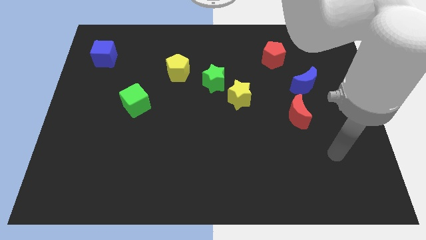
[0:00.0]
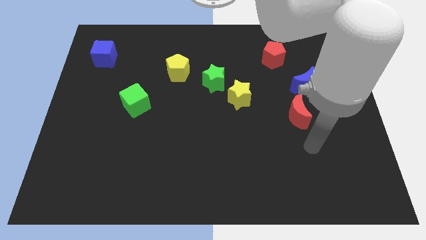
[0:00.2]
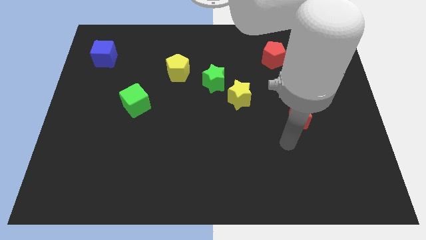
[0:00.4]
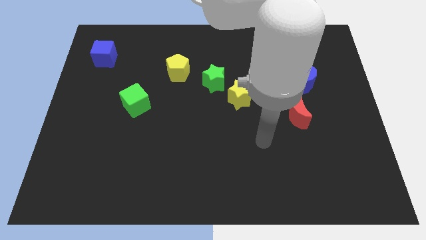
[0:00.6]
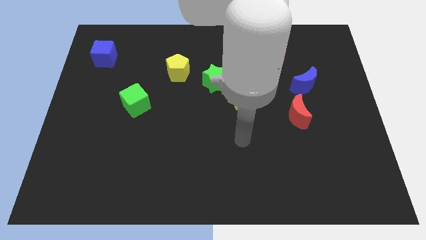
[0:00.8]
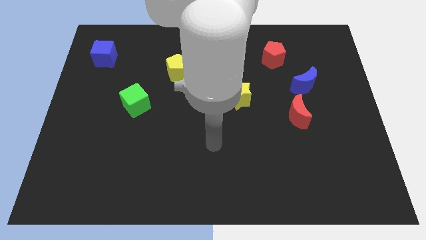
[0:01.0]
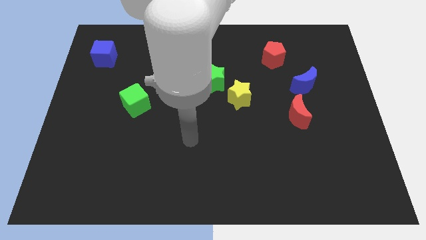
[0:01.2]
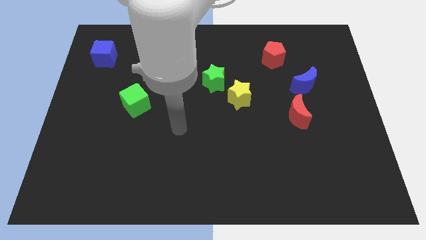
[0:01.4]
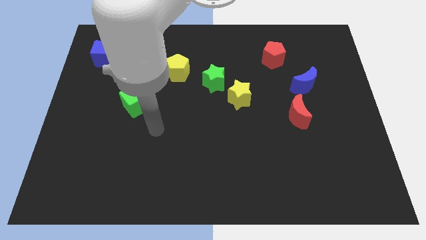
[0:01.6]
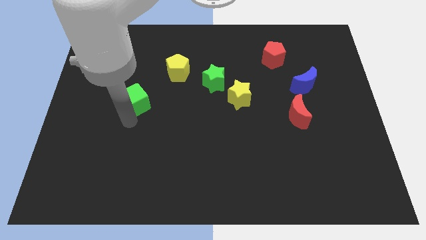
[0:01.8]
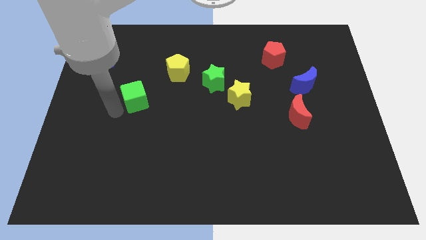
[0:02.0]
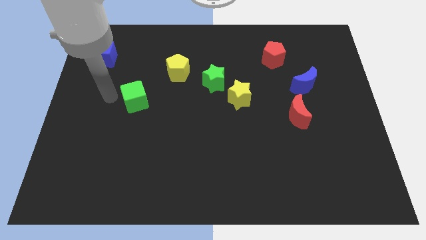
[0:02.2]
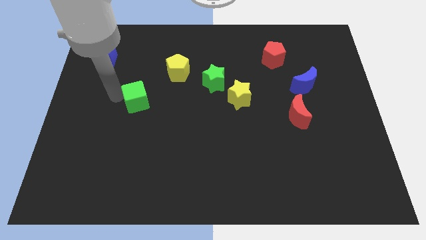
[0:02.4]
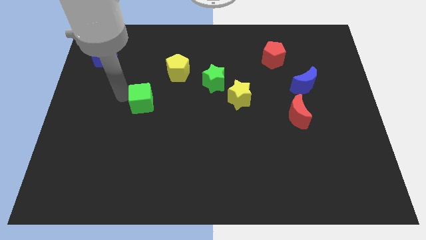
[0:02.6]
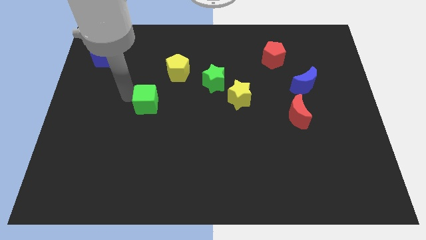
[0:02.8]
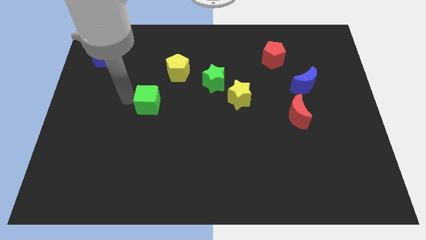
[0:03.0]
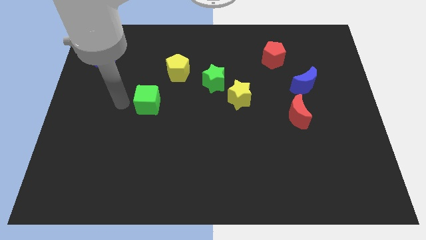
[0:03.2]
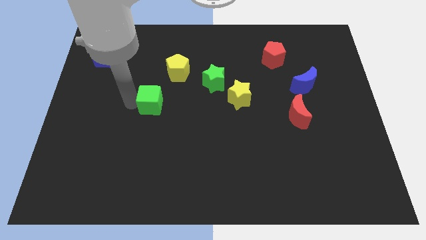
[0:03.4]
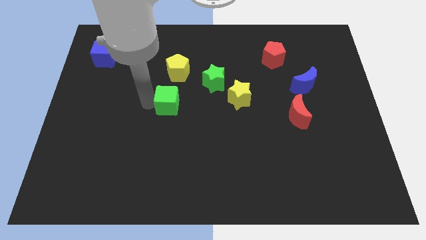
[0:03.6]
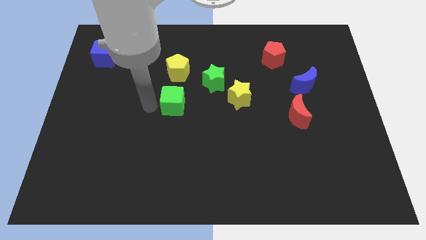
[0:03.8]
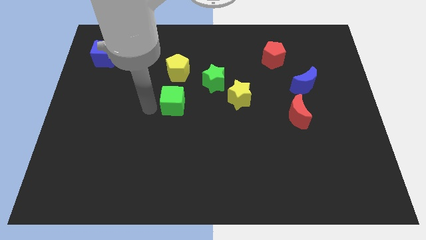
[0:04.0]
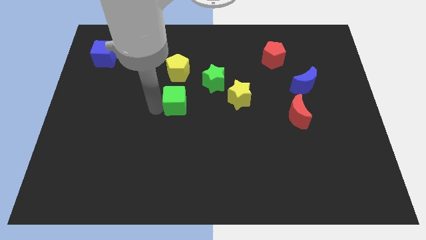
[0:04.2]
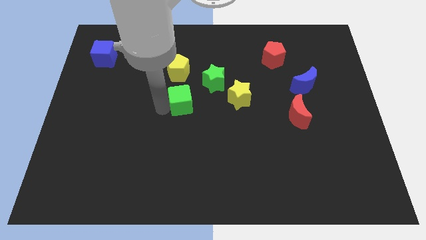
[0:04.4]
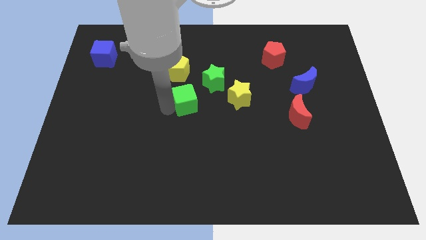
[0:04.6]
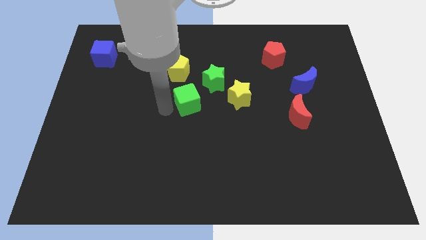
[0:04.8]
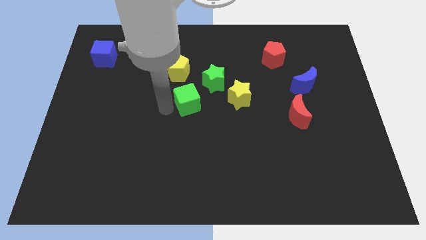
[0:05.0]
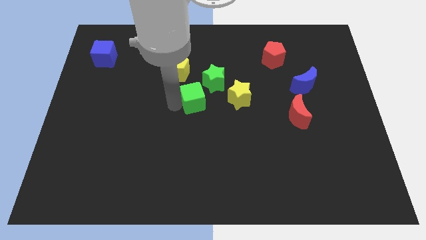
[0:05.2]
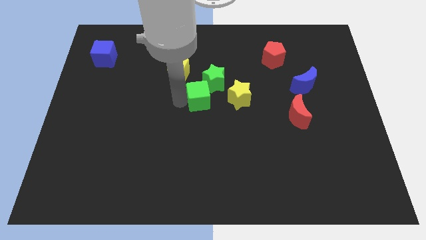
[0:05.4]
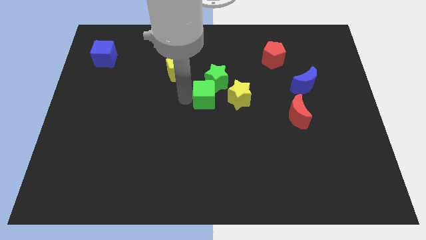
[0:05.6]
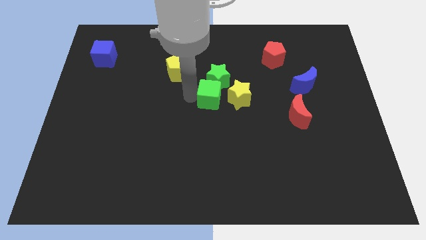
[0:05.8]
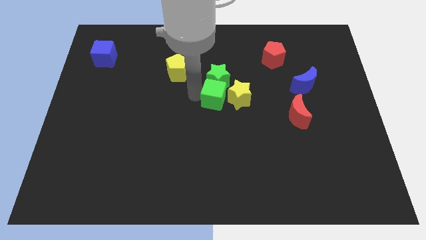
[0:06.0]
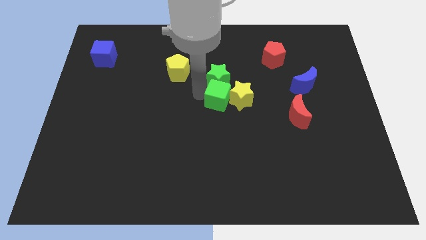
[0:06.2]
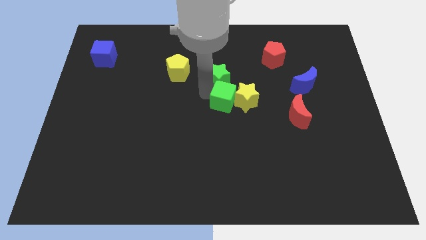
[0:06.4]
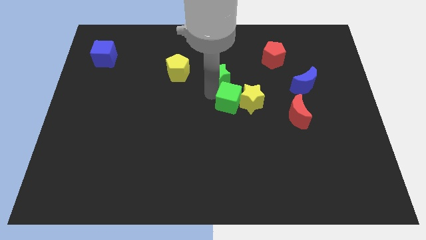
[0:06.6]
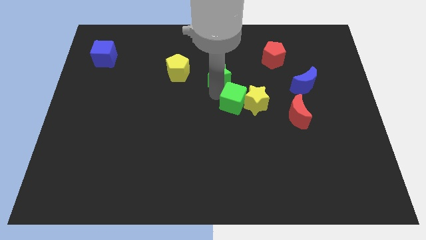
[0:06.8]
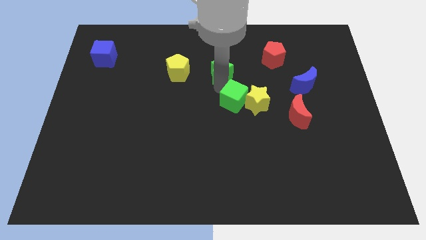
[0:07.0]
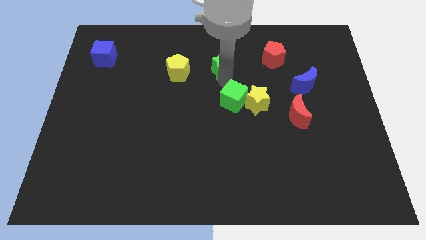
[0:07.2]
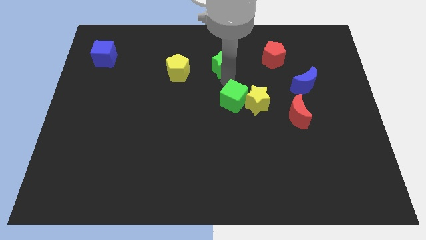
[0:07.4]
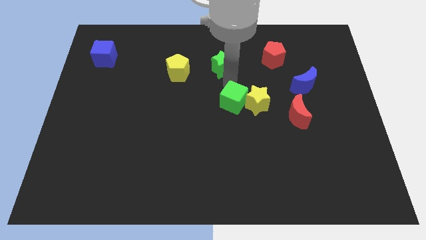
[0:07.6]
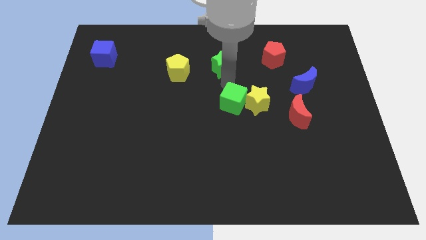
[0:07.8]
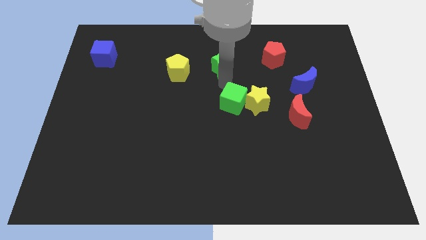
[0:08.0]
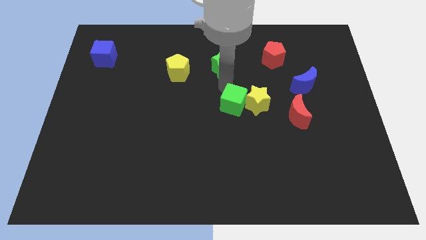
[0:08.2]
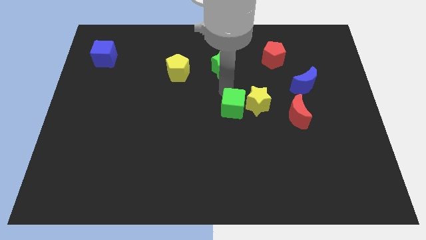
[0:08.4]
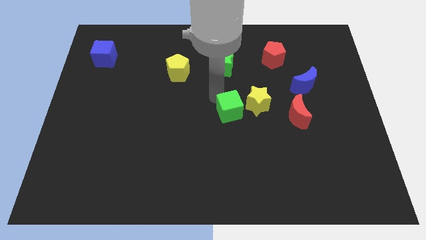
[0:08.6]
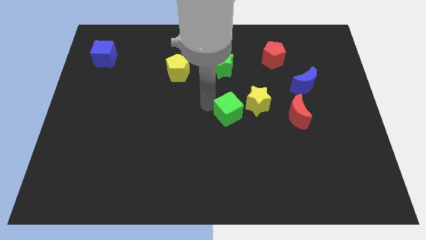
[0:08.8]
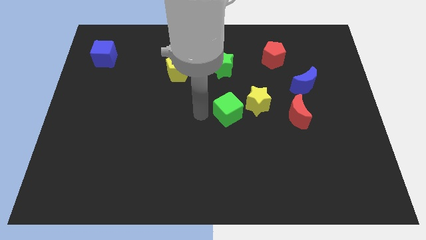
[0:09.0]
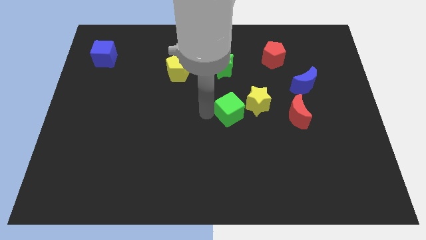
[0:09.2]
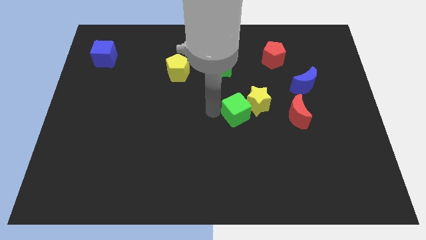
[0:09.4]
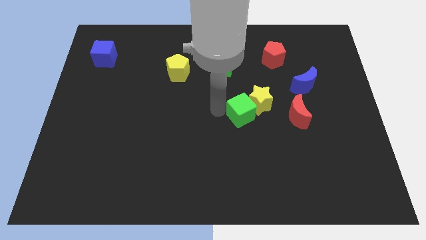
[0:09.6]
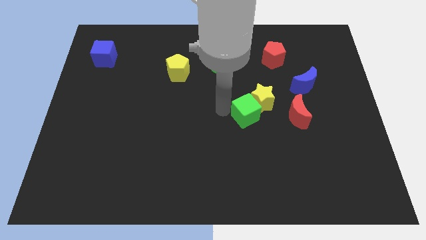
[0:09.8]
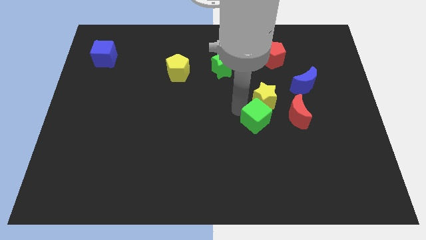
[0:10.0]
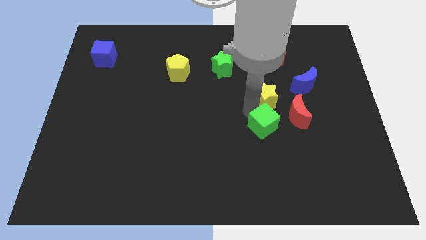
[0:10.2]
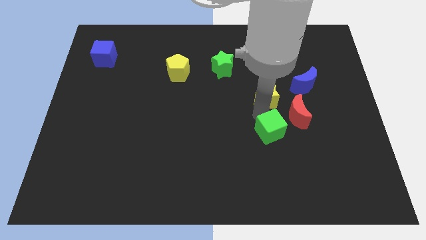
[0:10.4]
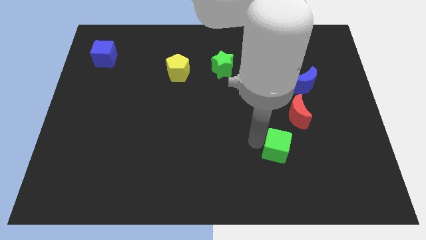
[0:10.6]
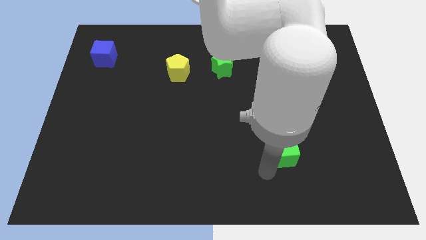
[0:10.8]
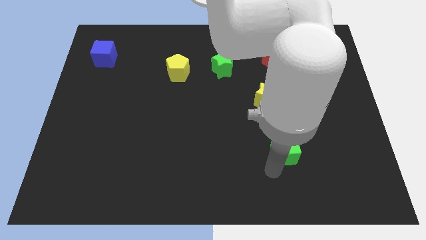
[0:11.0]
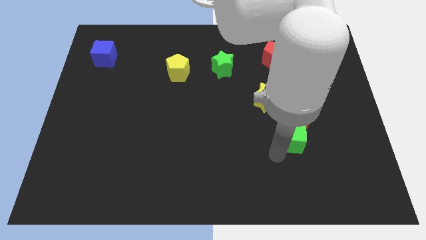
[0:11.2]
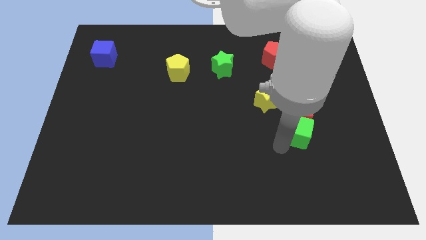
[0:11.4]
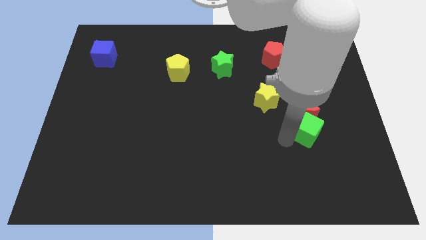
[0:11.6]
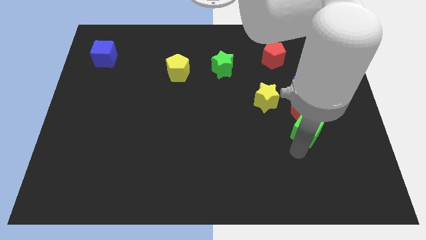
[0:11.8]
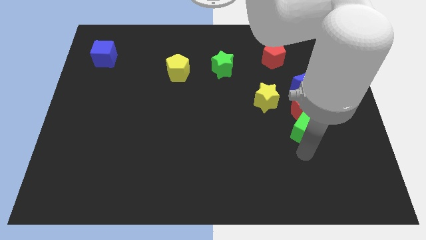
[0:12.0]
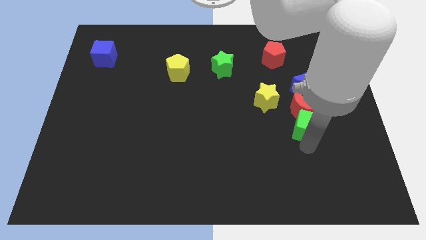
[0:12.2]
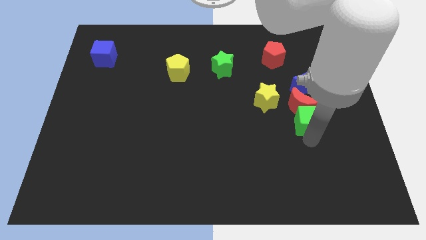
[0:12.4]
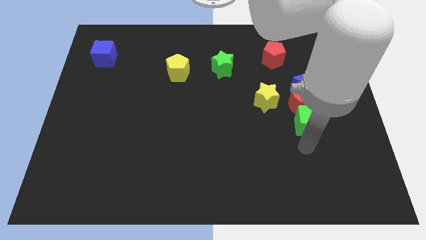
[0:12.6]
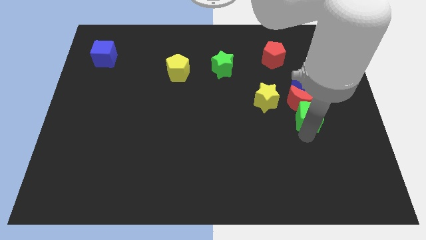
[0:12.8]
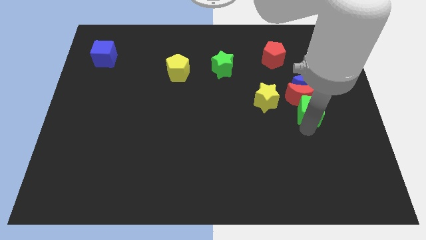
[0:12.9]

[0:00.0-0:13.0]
slide the green cube to the right side of the yellow star

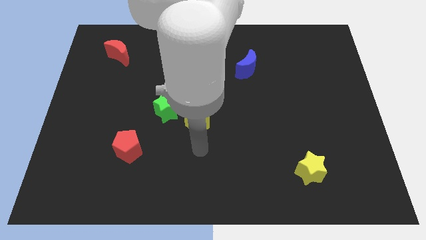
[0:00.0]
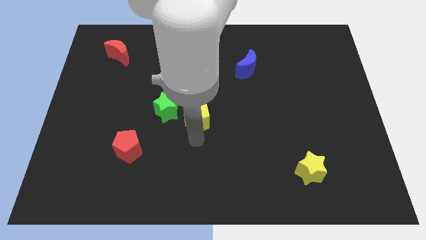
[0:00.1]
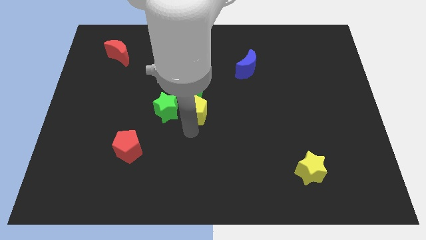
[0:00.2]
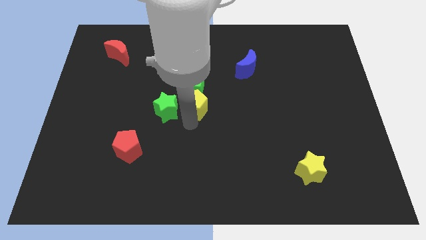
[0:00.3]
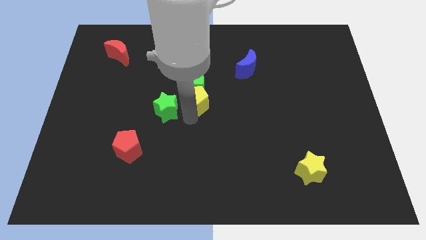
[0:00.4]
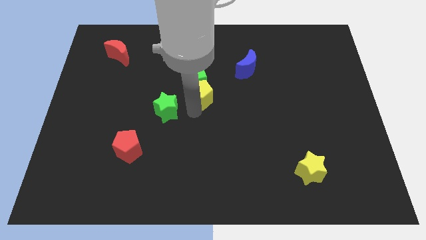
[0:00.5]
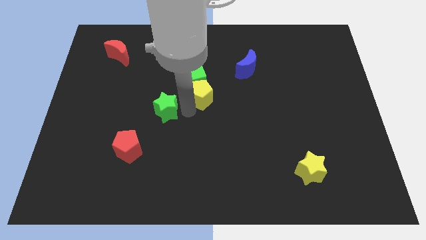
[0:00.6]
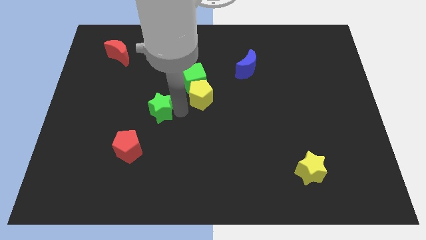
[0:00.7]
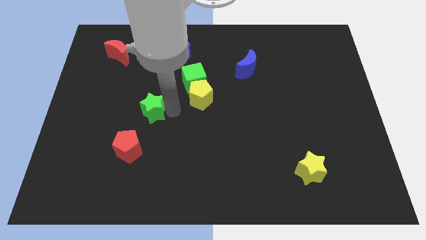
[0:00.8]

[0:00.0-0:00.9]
slide the green star above the red pentagon

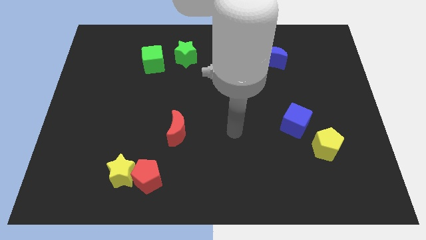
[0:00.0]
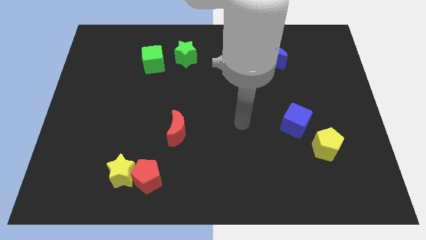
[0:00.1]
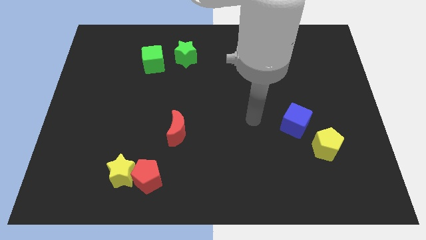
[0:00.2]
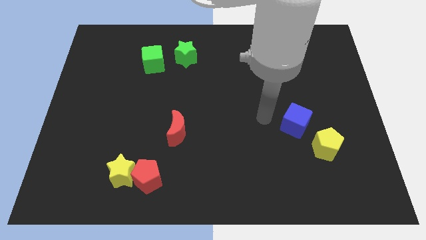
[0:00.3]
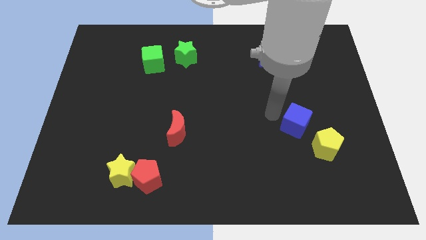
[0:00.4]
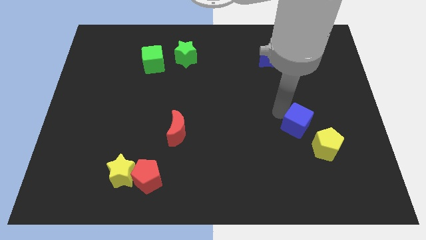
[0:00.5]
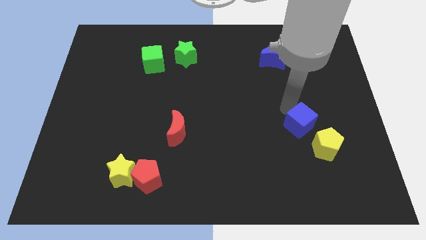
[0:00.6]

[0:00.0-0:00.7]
slide the yellow pentagon below the blue cube
